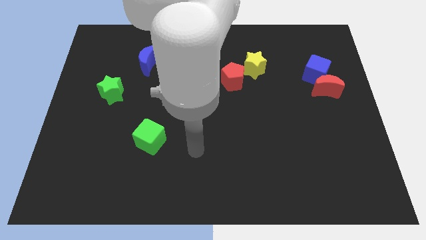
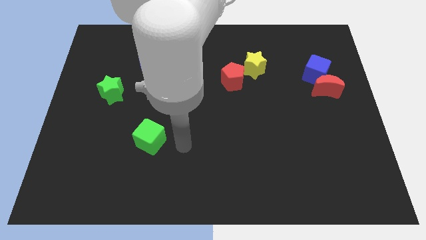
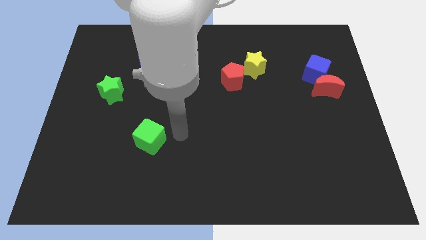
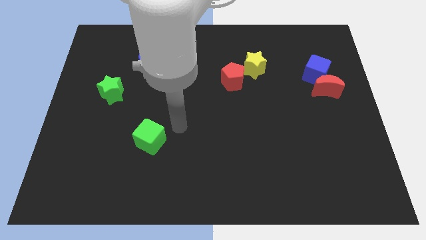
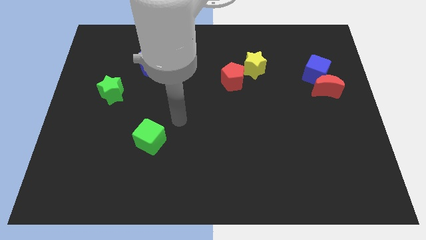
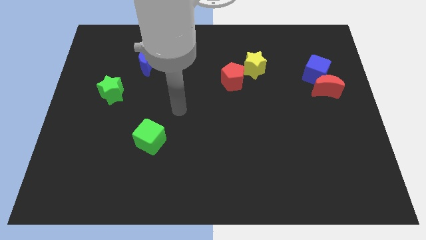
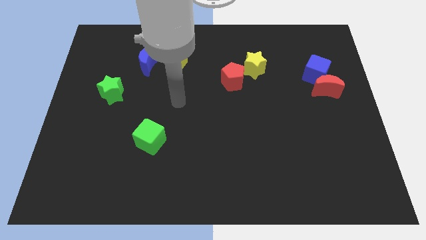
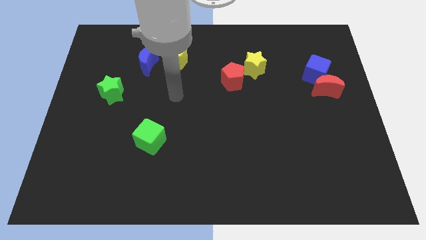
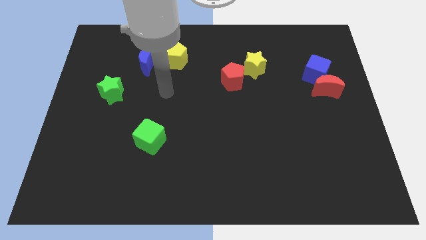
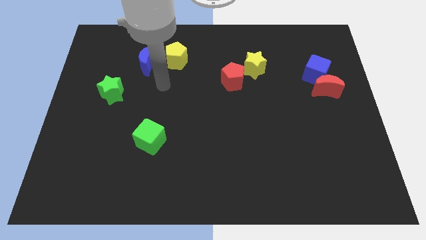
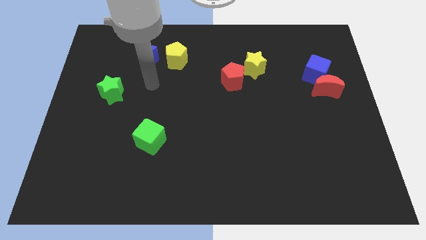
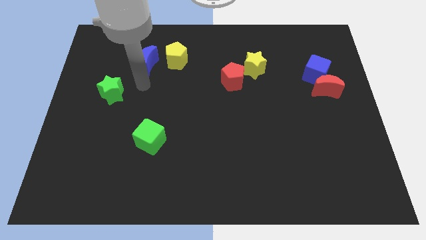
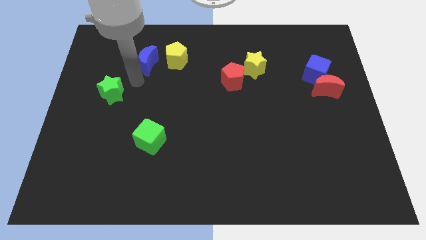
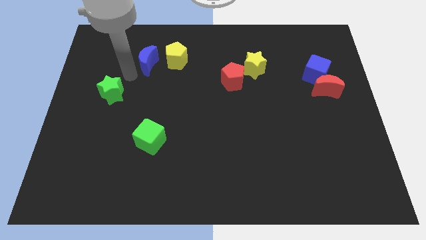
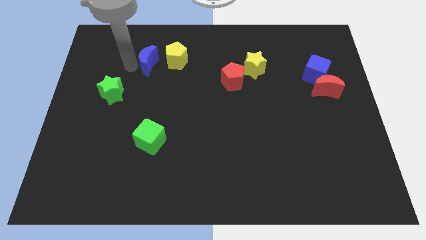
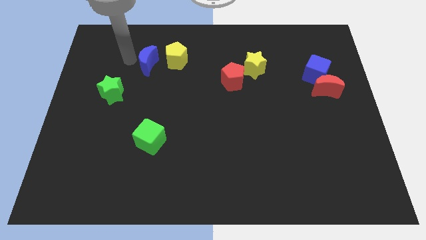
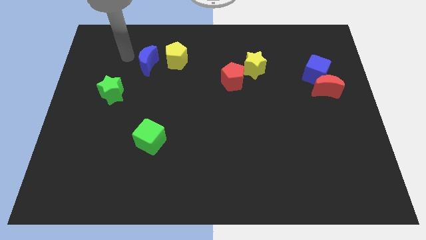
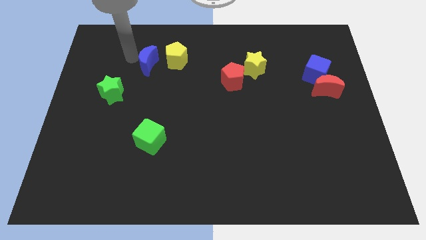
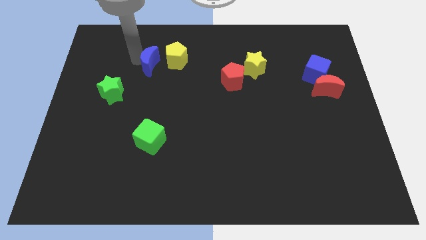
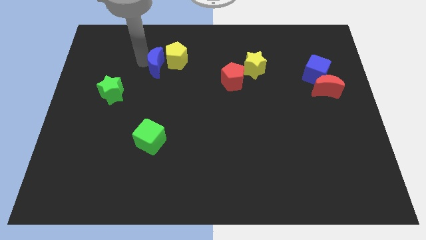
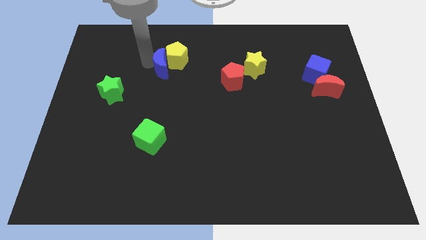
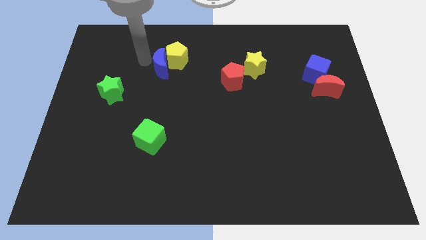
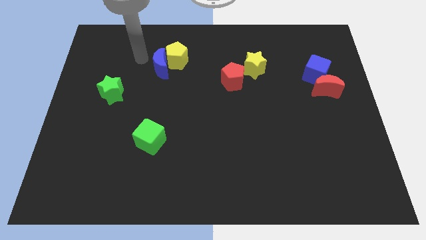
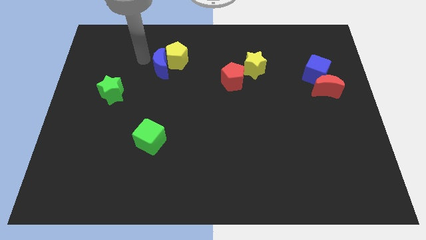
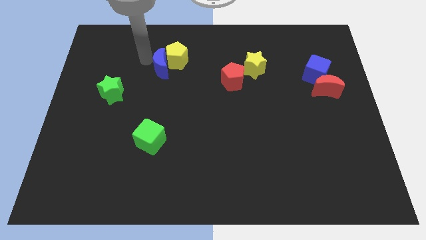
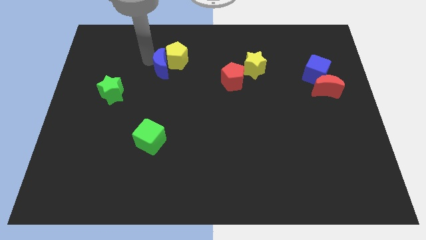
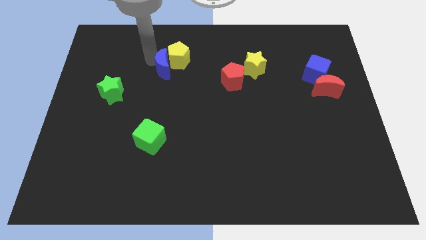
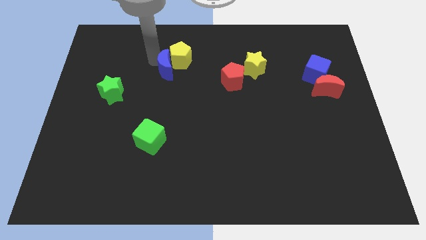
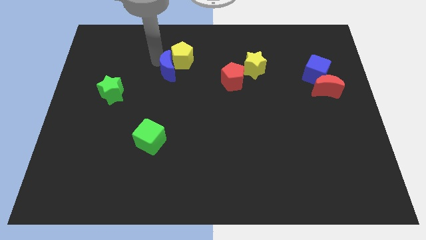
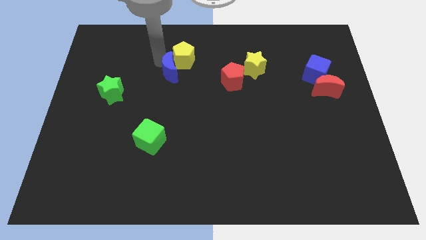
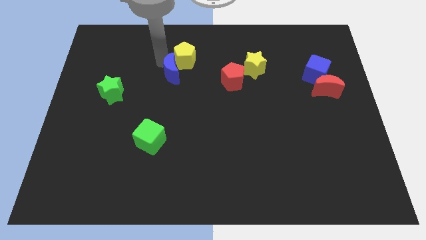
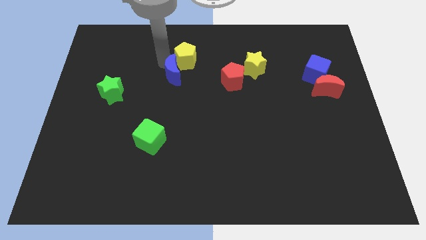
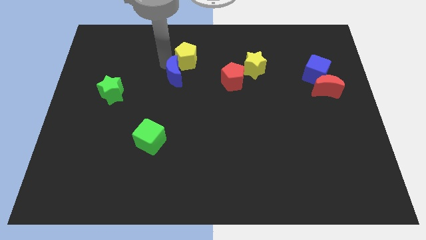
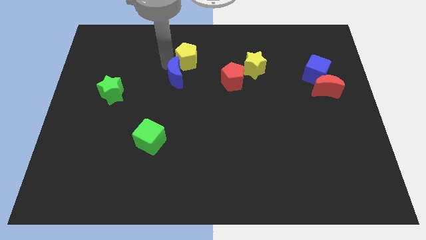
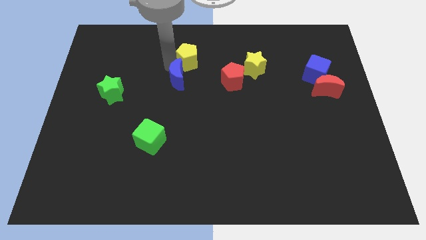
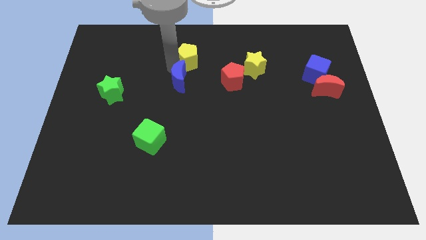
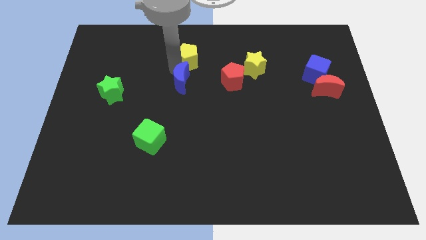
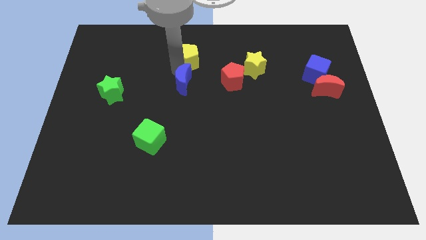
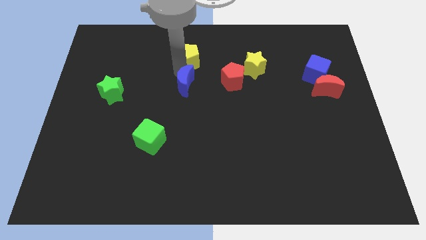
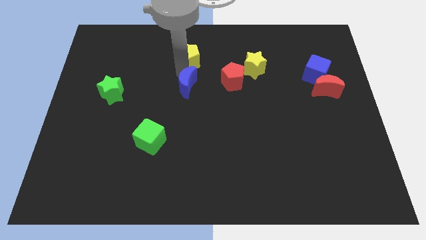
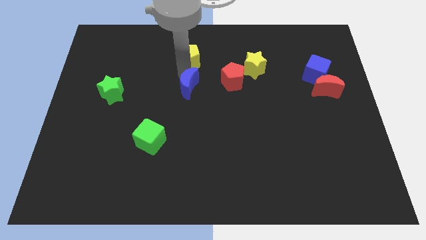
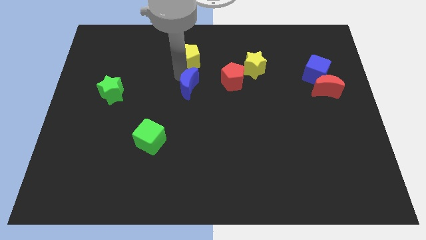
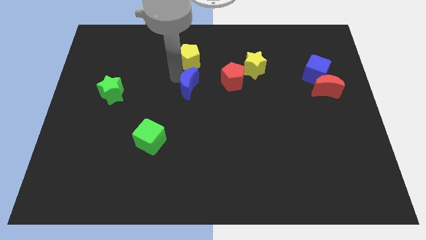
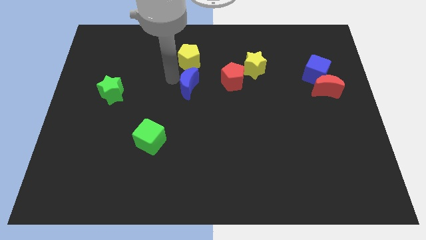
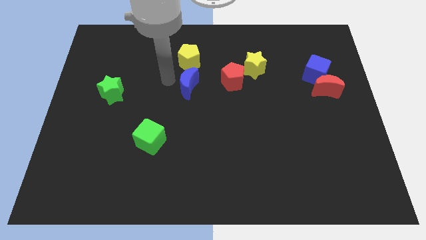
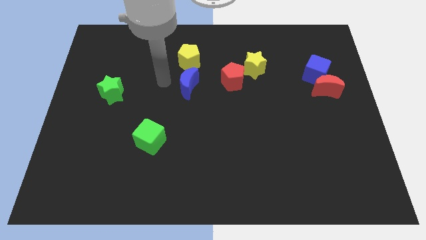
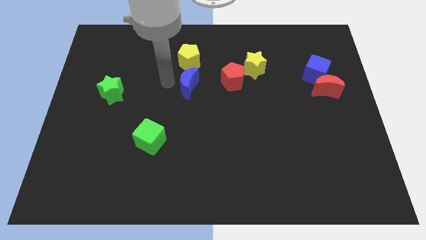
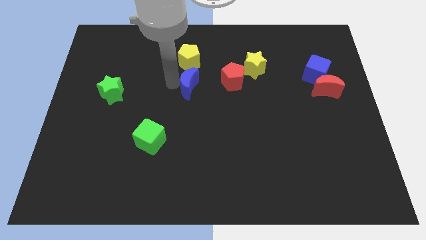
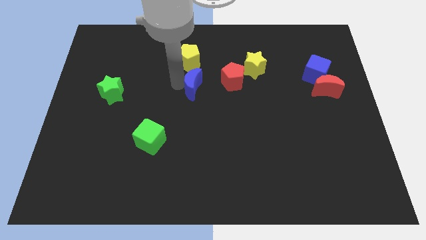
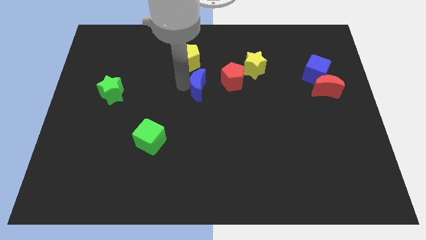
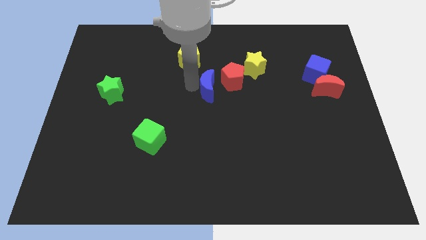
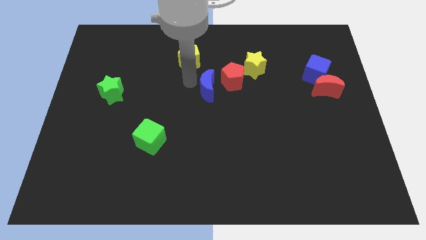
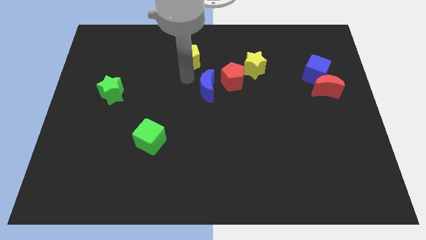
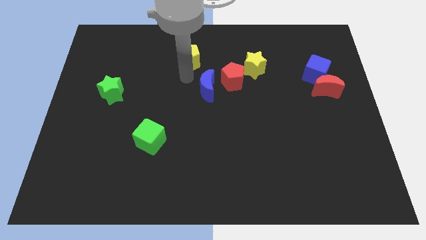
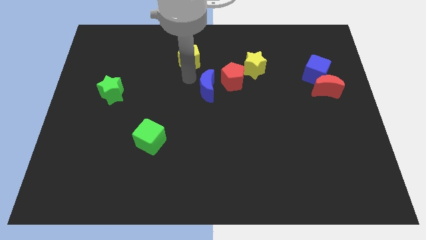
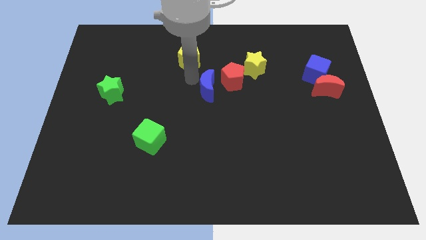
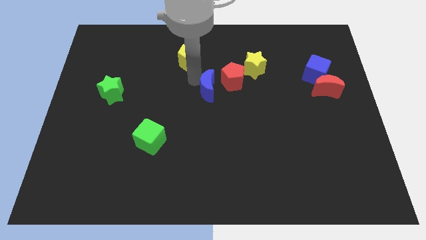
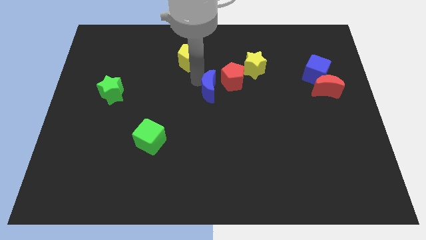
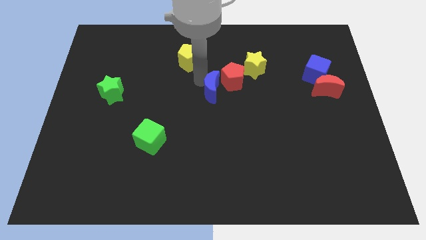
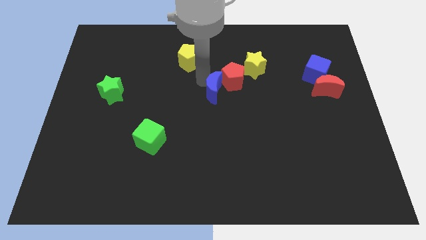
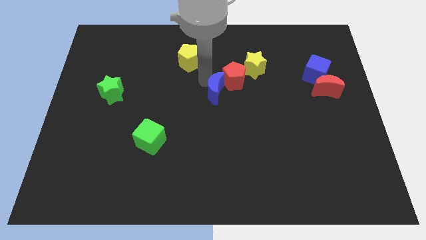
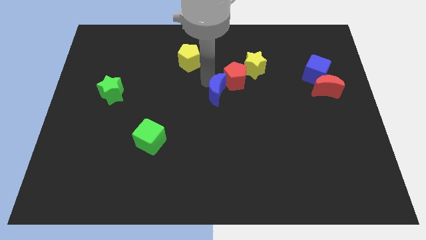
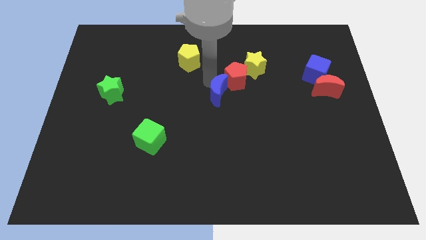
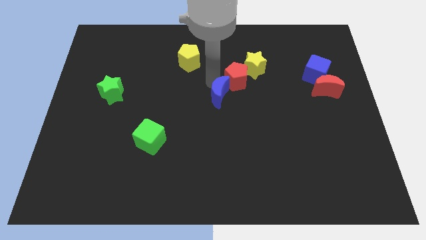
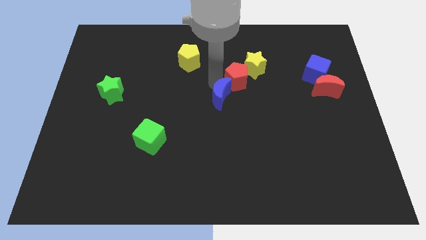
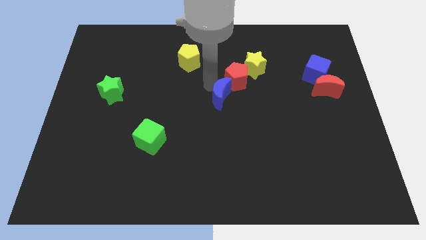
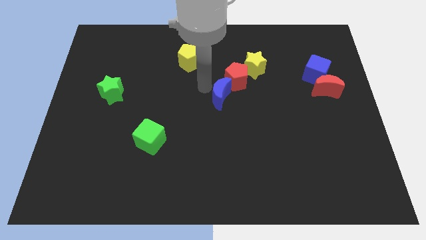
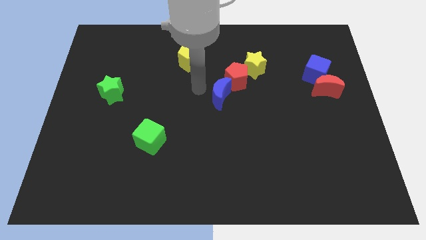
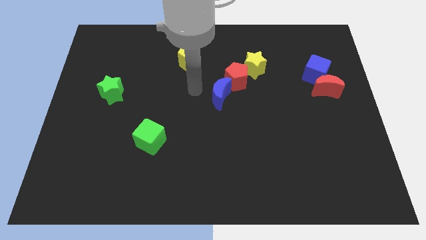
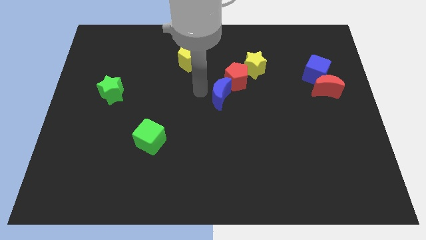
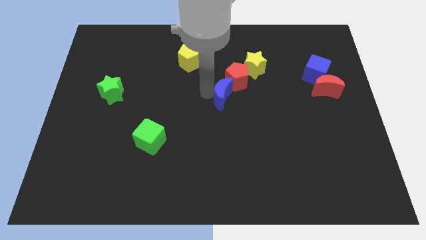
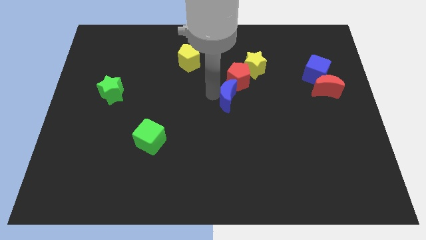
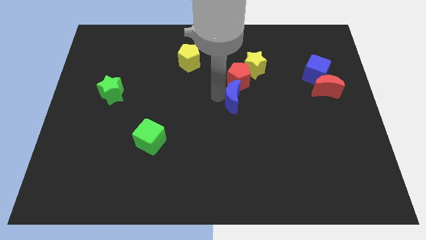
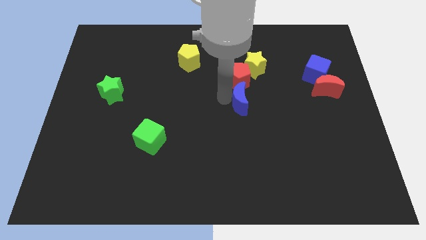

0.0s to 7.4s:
move the blue moon to the bottom of the yellow star
